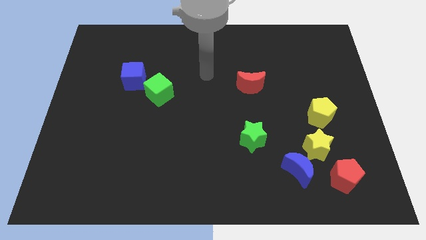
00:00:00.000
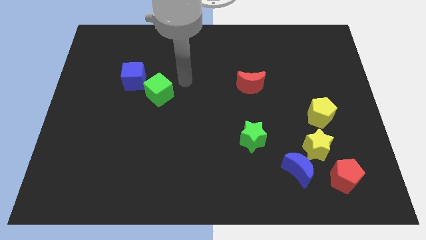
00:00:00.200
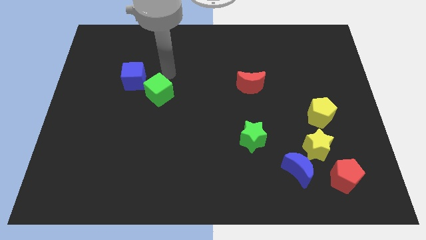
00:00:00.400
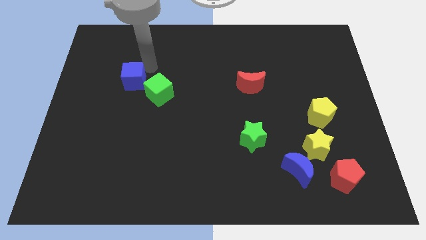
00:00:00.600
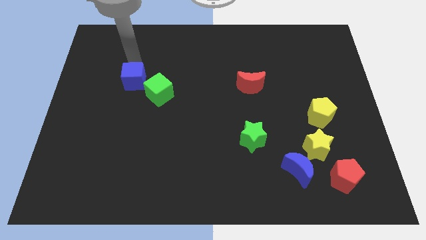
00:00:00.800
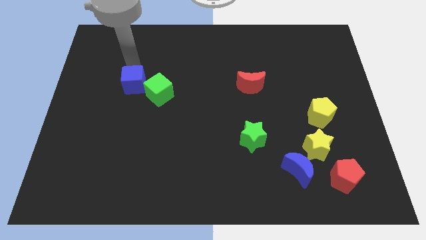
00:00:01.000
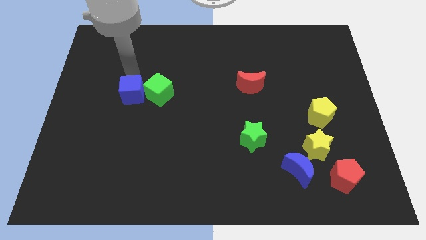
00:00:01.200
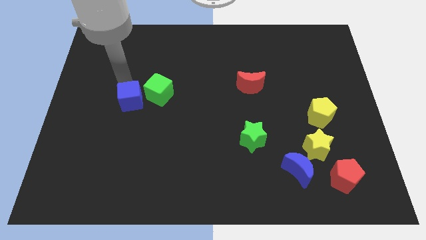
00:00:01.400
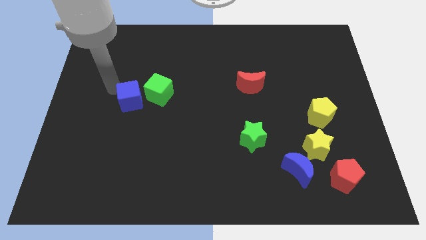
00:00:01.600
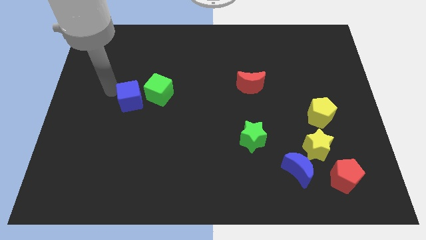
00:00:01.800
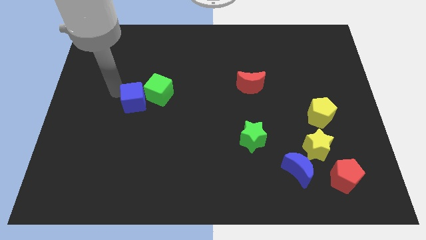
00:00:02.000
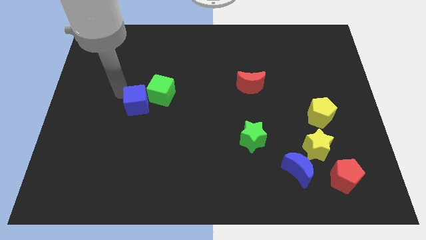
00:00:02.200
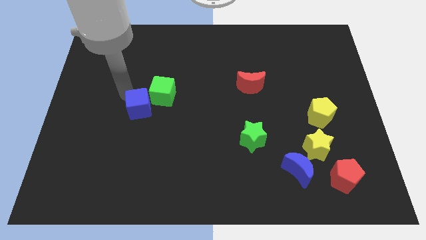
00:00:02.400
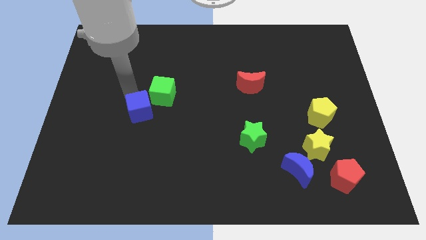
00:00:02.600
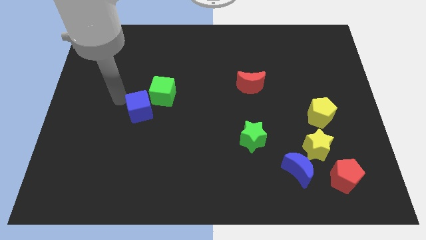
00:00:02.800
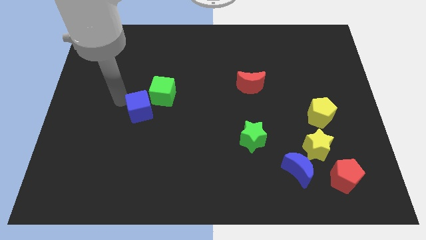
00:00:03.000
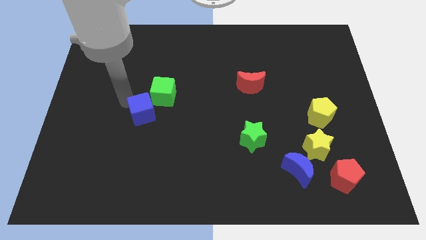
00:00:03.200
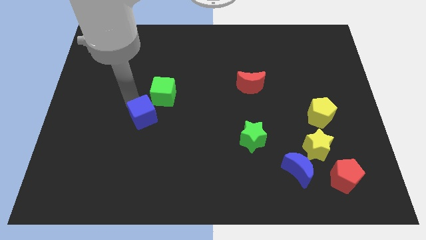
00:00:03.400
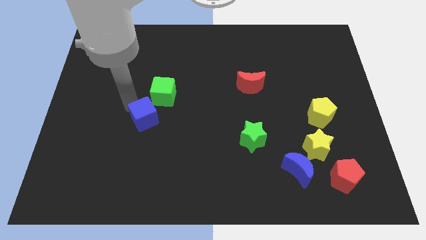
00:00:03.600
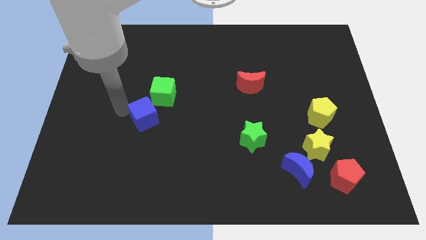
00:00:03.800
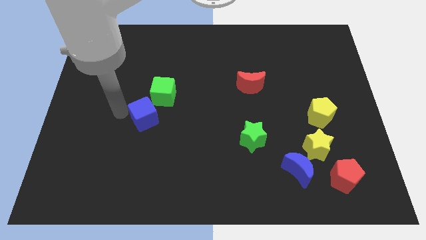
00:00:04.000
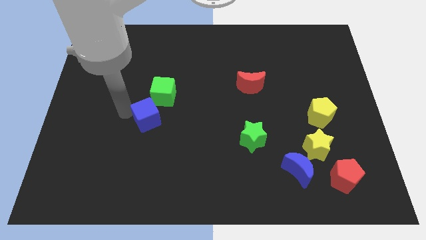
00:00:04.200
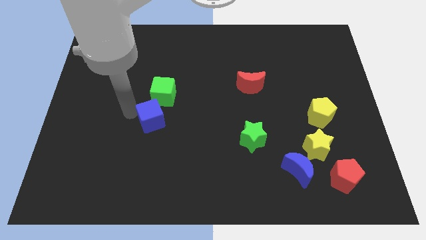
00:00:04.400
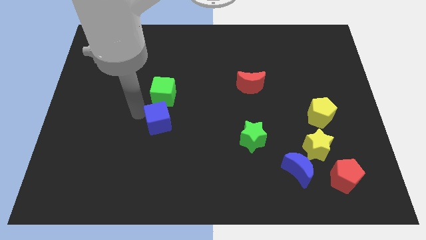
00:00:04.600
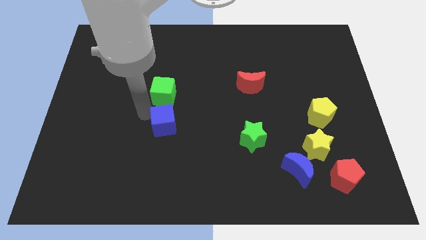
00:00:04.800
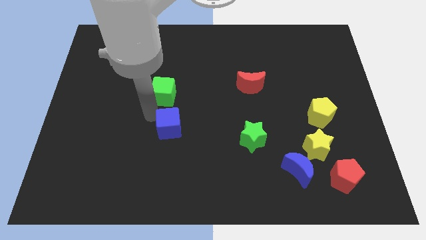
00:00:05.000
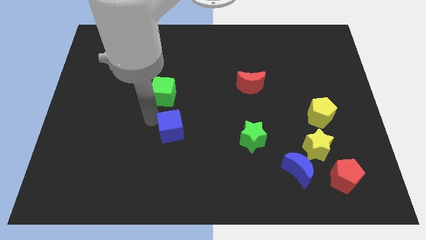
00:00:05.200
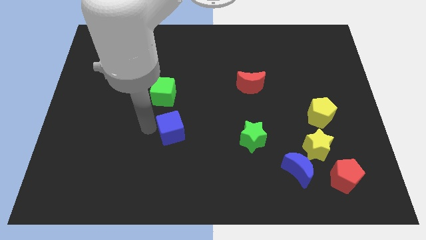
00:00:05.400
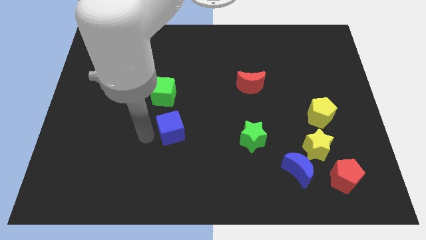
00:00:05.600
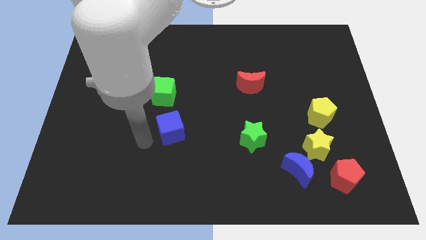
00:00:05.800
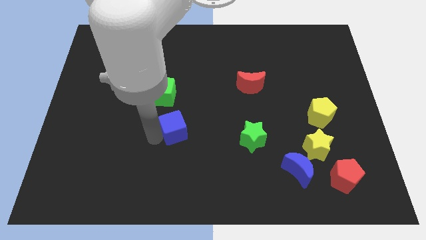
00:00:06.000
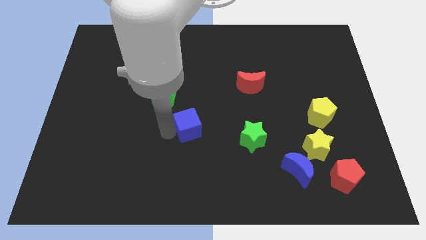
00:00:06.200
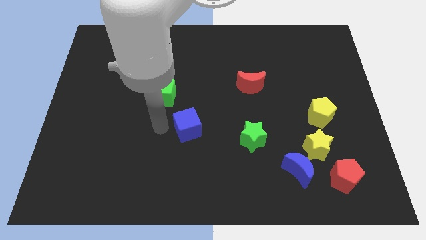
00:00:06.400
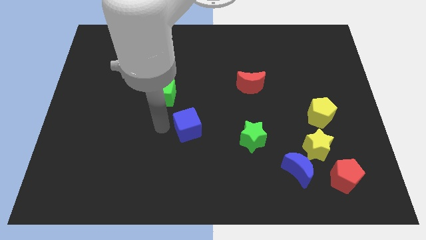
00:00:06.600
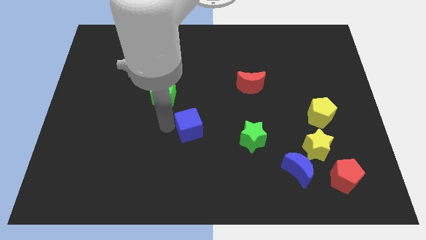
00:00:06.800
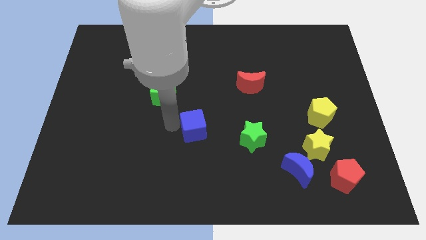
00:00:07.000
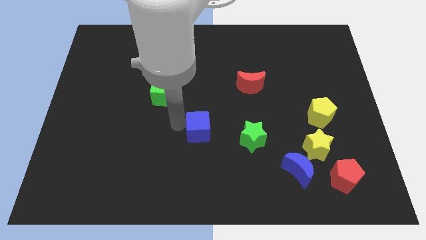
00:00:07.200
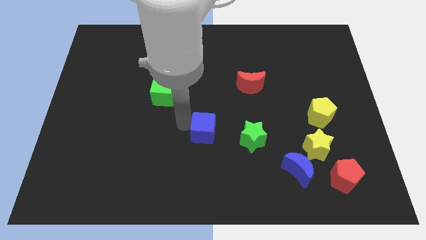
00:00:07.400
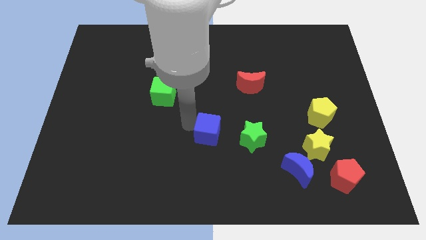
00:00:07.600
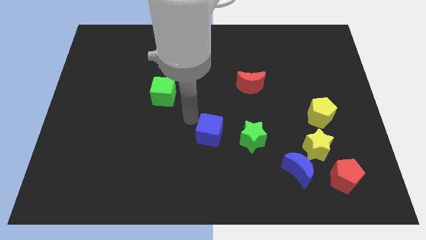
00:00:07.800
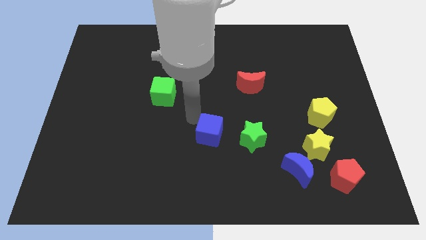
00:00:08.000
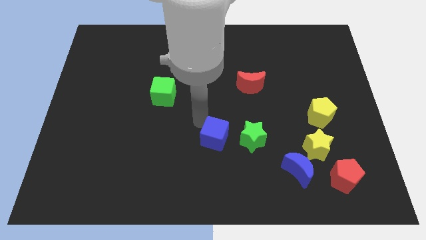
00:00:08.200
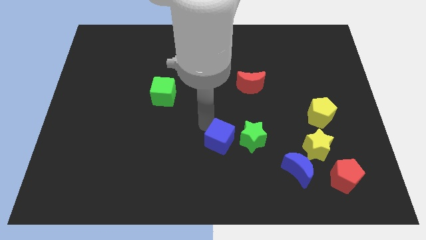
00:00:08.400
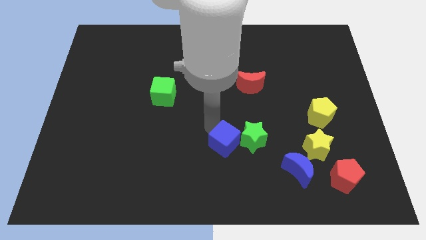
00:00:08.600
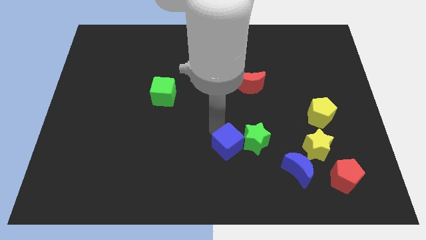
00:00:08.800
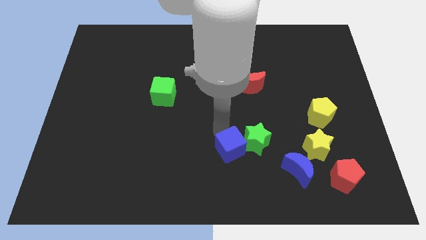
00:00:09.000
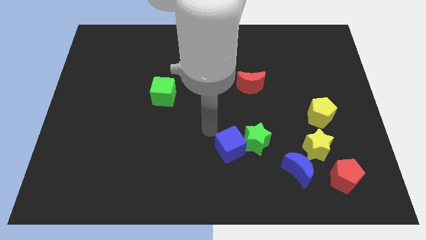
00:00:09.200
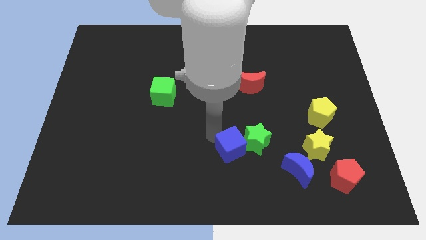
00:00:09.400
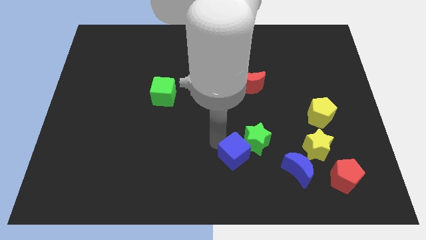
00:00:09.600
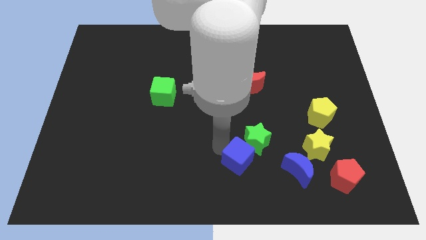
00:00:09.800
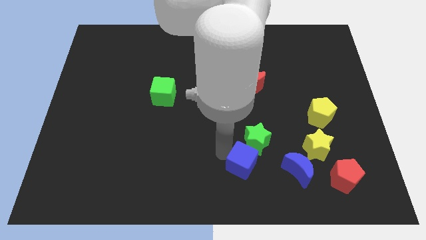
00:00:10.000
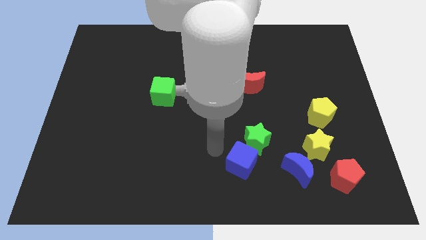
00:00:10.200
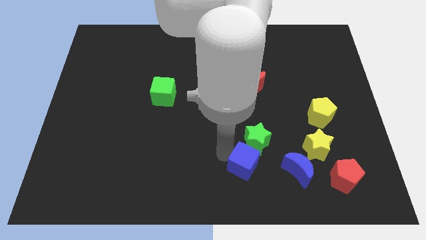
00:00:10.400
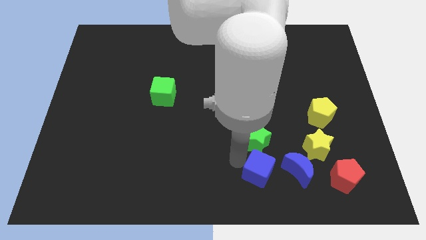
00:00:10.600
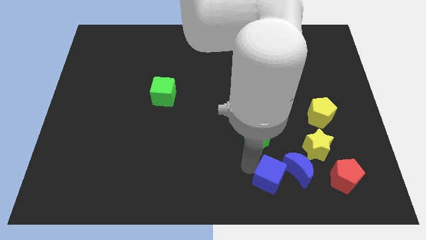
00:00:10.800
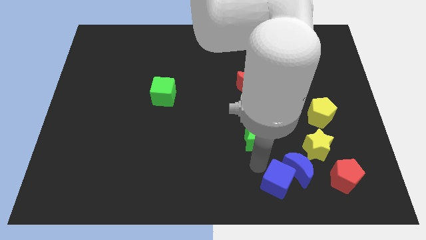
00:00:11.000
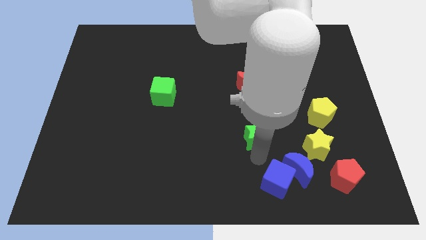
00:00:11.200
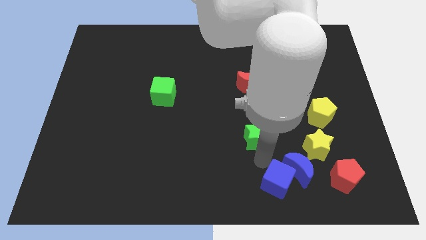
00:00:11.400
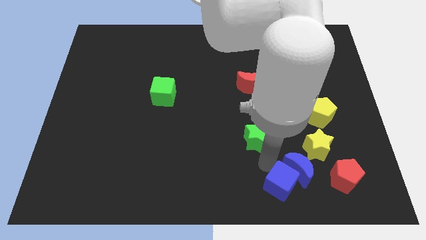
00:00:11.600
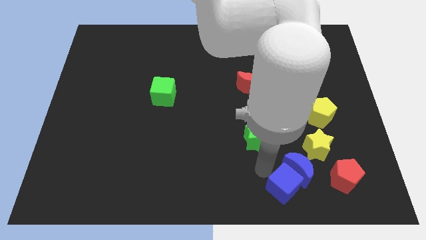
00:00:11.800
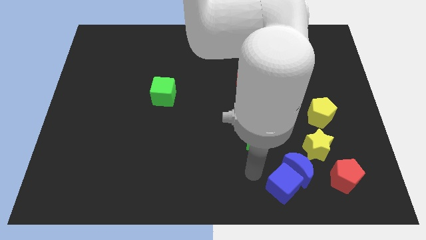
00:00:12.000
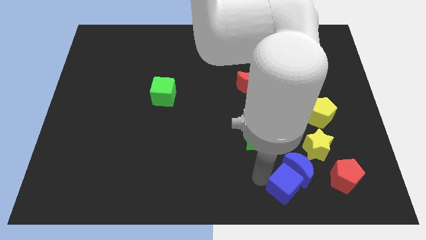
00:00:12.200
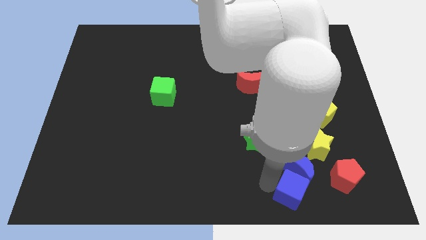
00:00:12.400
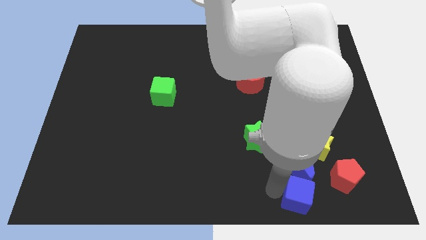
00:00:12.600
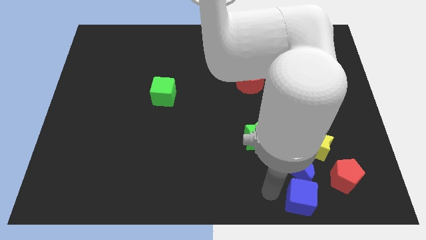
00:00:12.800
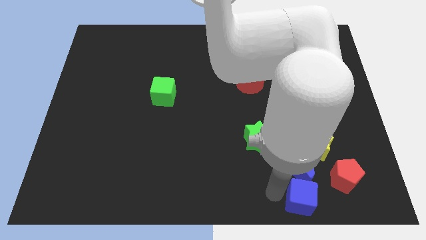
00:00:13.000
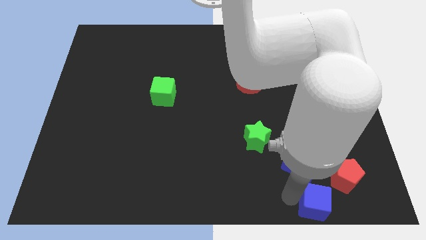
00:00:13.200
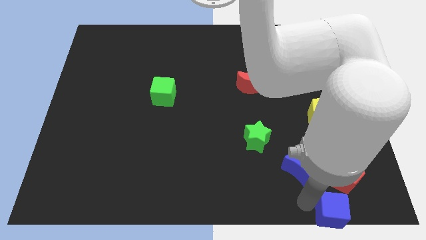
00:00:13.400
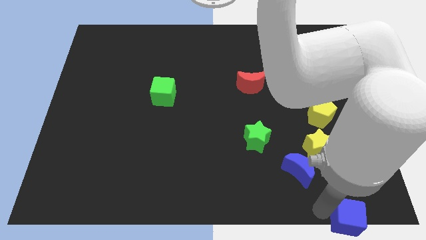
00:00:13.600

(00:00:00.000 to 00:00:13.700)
slide the blue cube to the lower right corner

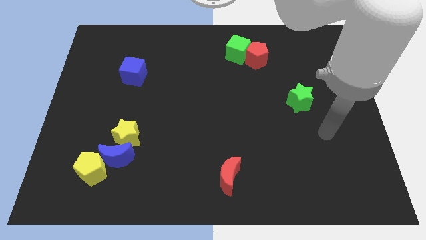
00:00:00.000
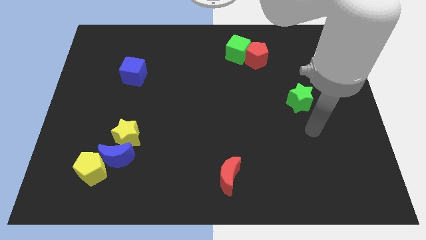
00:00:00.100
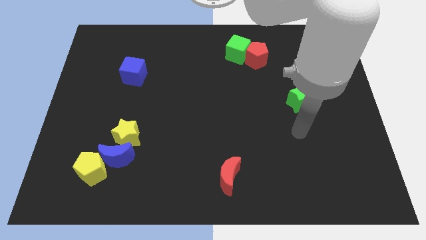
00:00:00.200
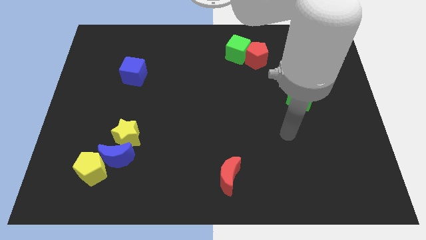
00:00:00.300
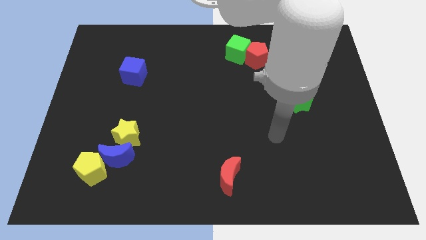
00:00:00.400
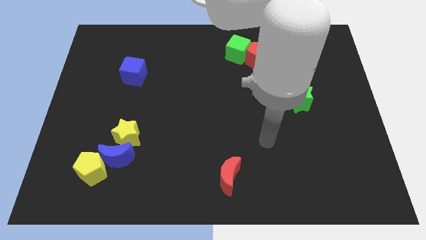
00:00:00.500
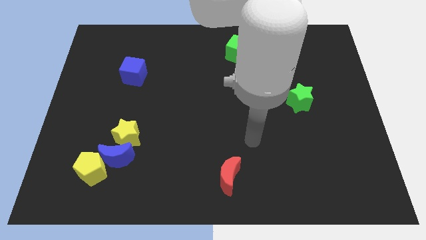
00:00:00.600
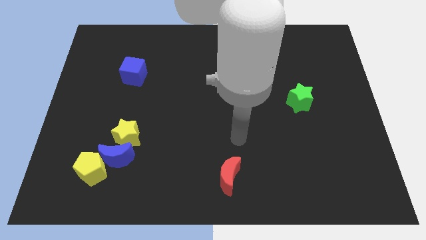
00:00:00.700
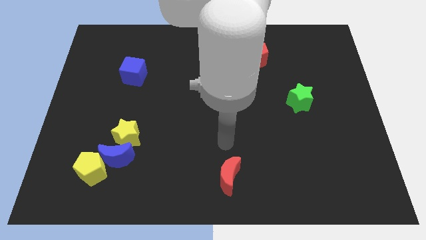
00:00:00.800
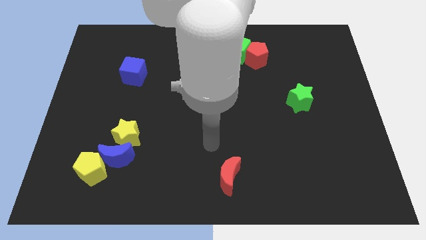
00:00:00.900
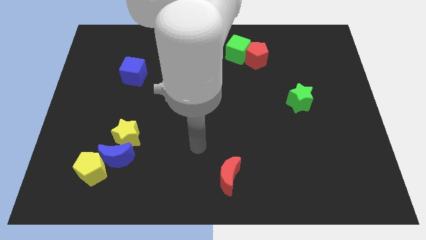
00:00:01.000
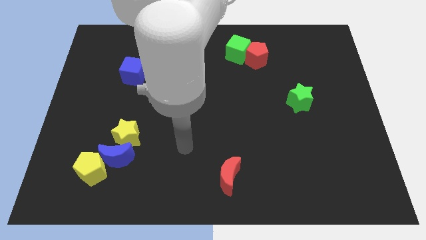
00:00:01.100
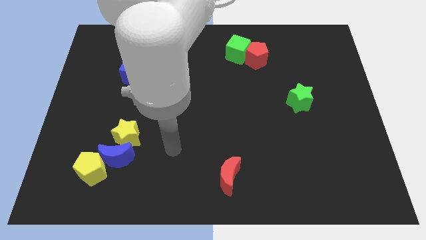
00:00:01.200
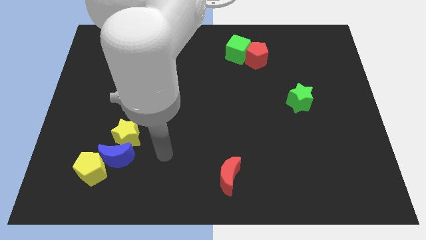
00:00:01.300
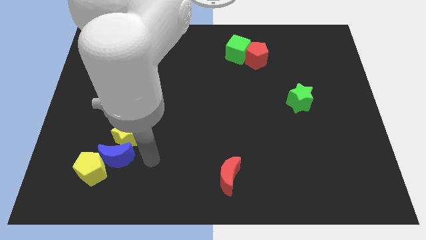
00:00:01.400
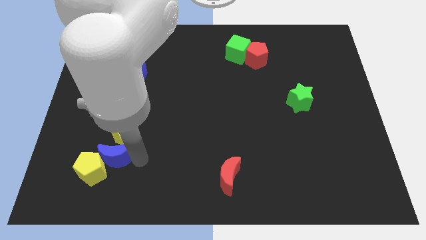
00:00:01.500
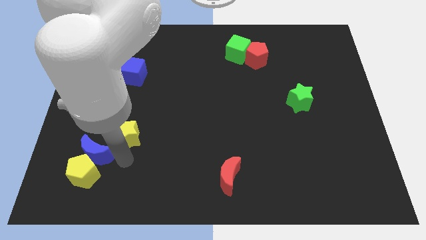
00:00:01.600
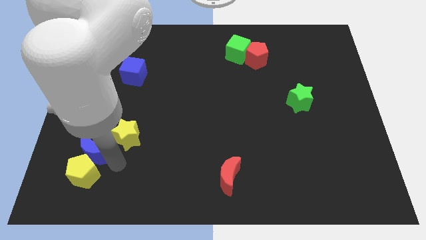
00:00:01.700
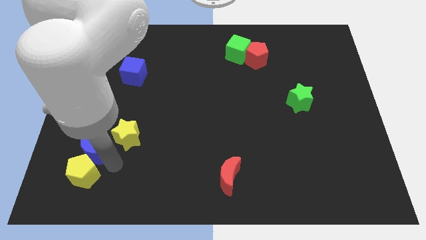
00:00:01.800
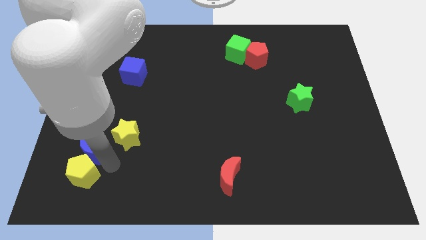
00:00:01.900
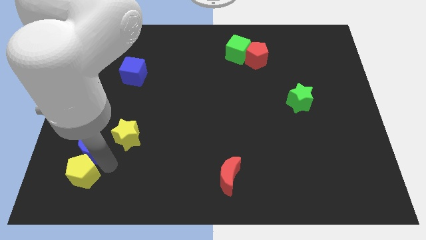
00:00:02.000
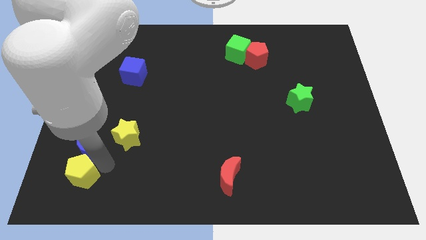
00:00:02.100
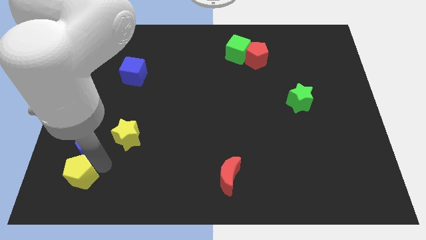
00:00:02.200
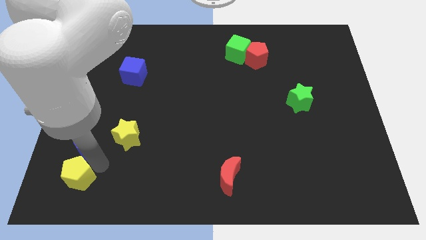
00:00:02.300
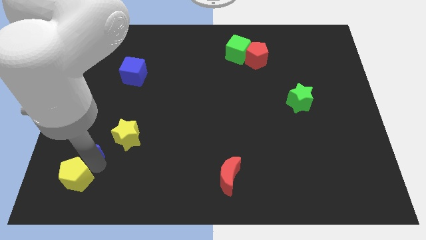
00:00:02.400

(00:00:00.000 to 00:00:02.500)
put the yellow pentagon to the bottom left of the board
